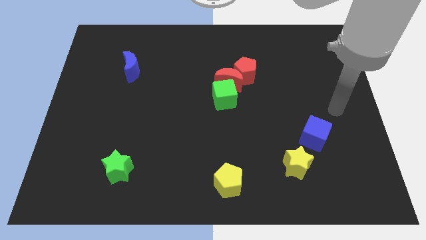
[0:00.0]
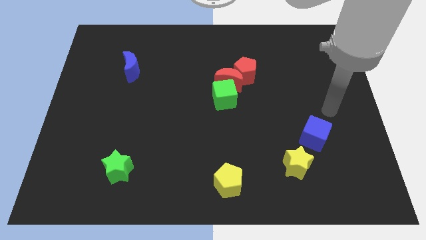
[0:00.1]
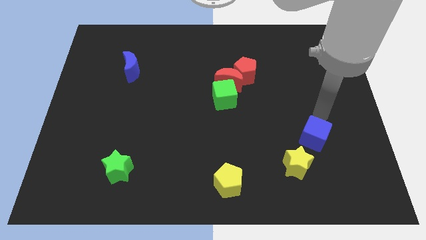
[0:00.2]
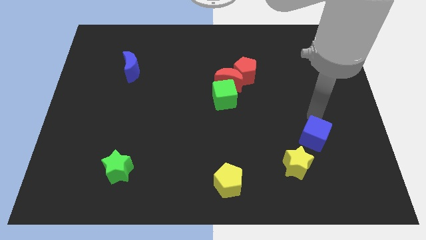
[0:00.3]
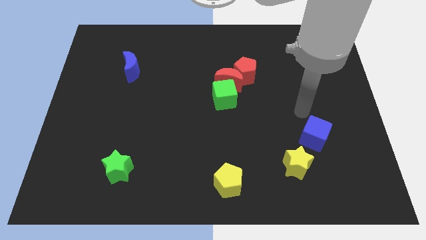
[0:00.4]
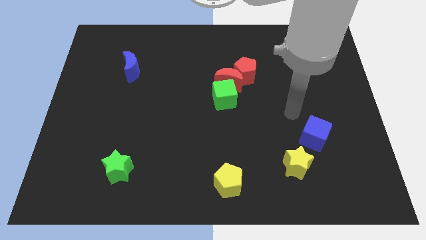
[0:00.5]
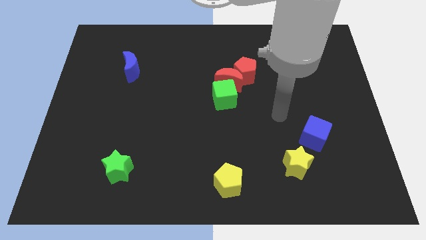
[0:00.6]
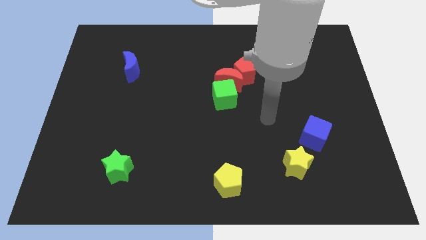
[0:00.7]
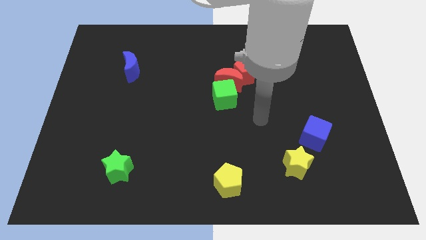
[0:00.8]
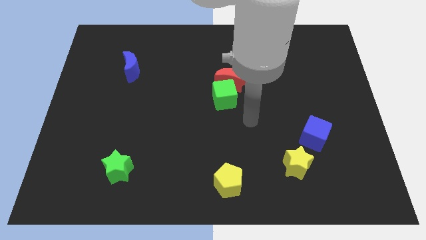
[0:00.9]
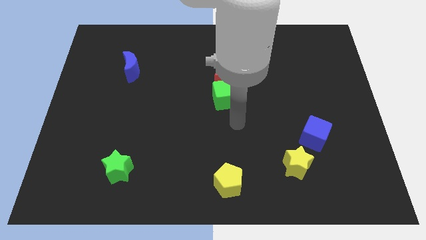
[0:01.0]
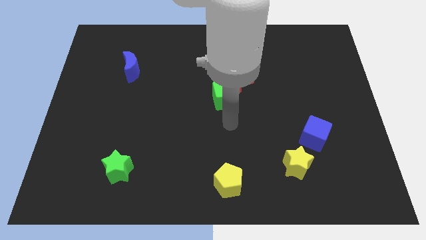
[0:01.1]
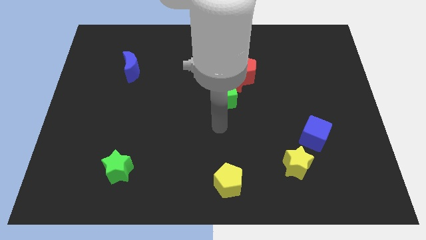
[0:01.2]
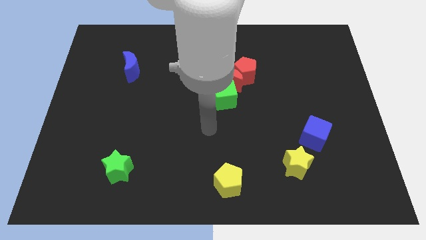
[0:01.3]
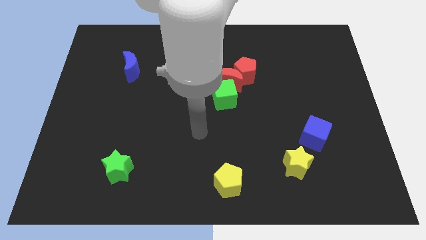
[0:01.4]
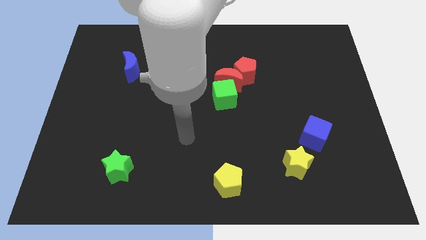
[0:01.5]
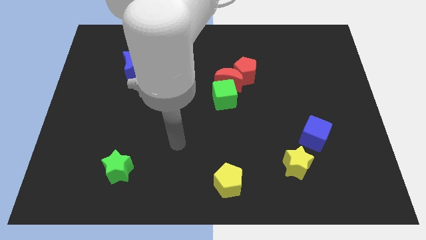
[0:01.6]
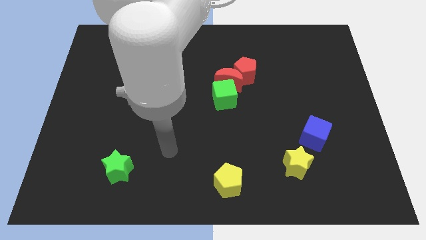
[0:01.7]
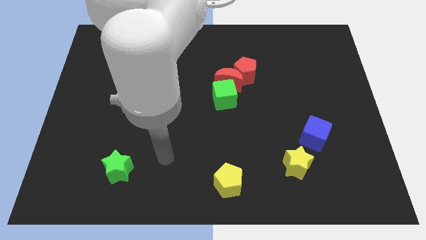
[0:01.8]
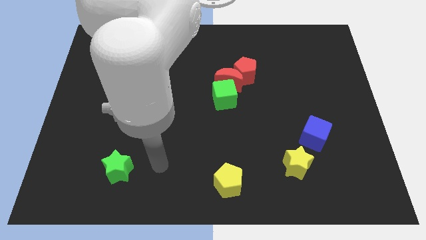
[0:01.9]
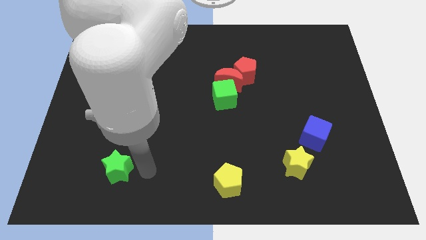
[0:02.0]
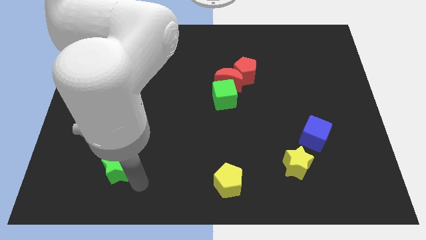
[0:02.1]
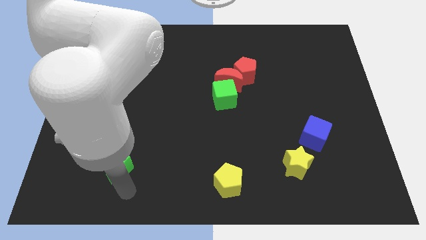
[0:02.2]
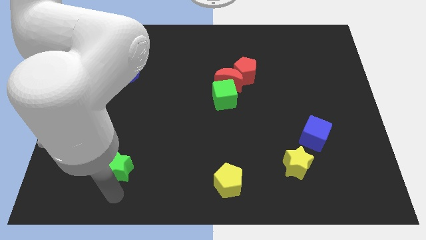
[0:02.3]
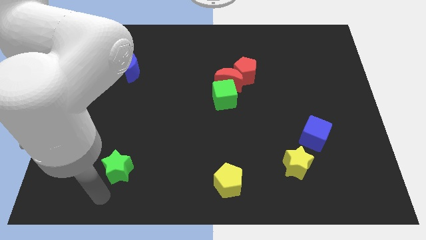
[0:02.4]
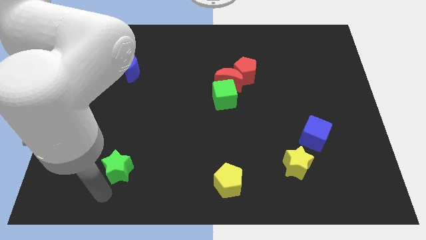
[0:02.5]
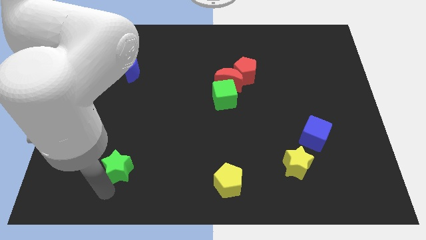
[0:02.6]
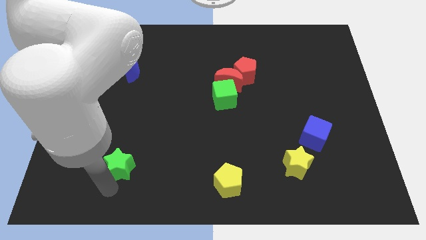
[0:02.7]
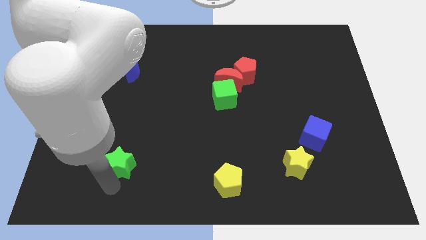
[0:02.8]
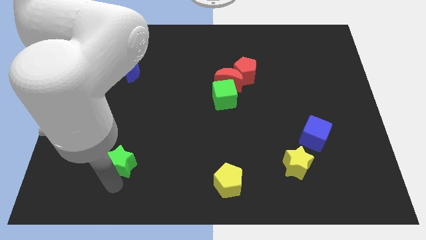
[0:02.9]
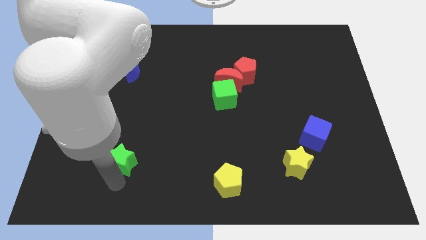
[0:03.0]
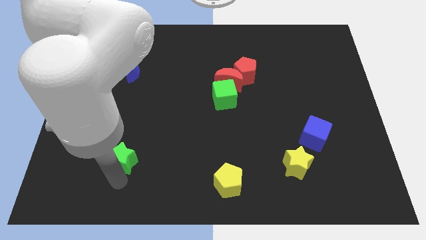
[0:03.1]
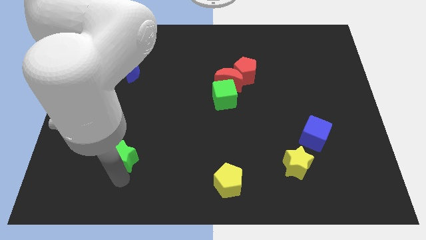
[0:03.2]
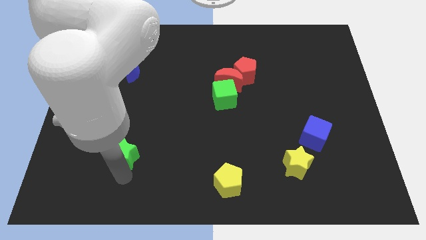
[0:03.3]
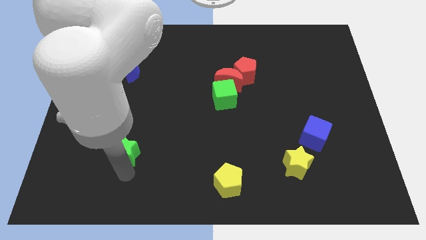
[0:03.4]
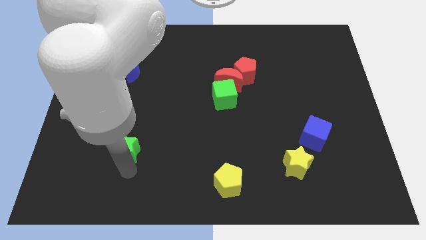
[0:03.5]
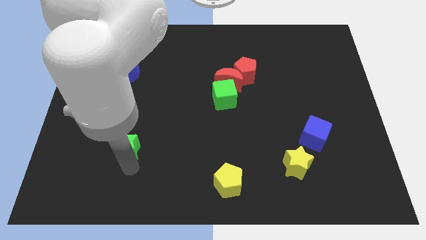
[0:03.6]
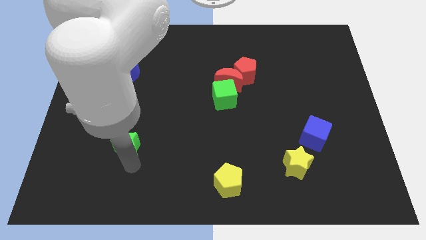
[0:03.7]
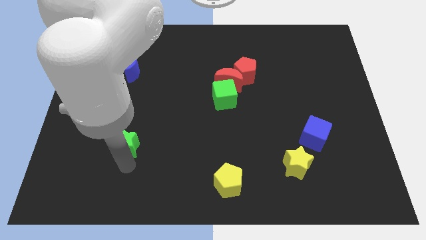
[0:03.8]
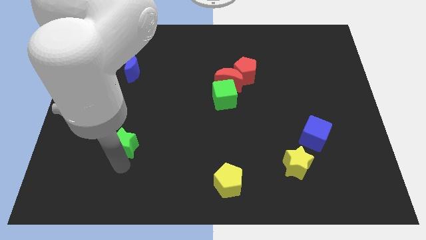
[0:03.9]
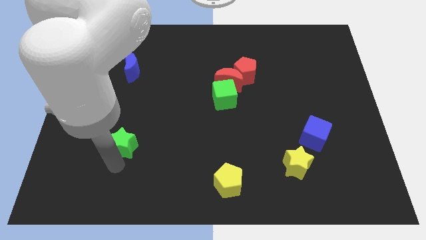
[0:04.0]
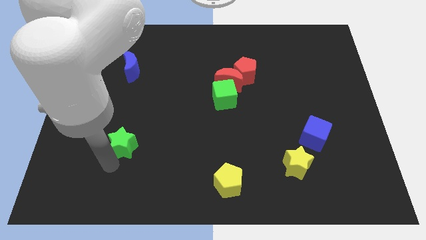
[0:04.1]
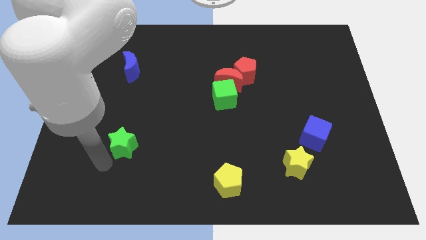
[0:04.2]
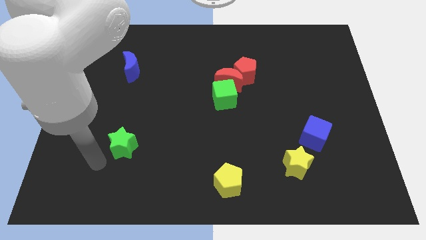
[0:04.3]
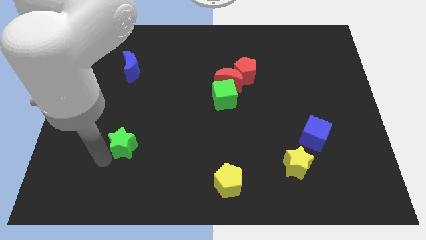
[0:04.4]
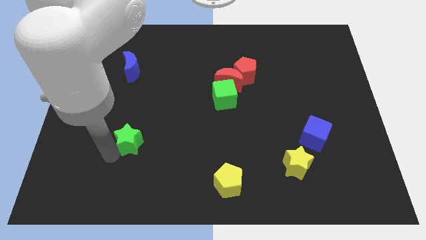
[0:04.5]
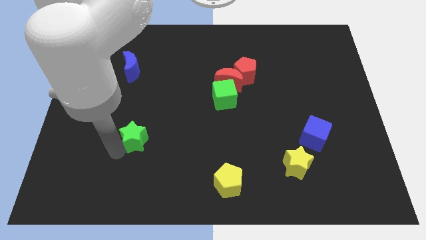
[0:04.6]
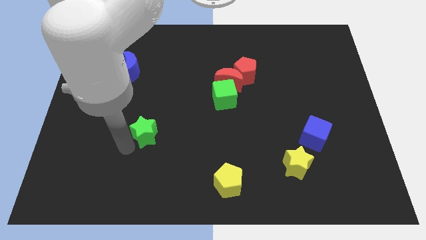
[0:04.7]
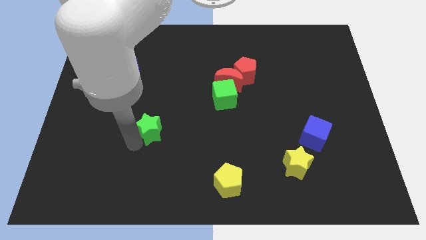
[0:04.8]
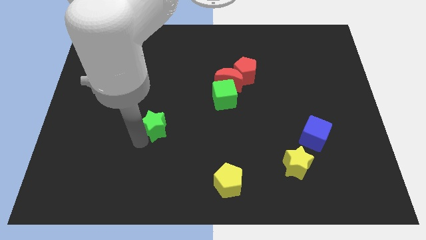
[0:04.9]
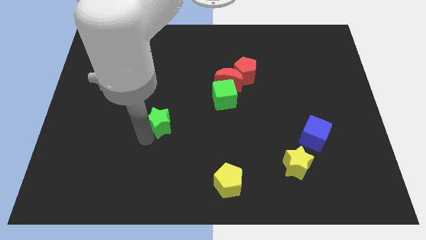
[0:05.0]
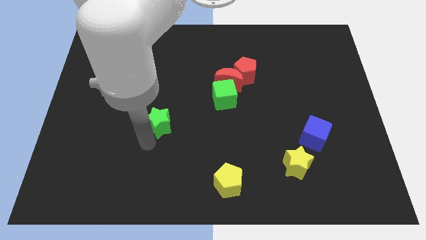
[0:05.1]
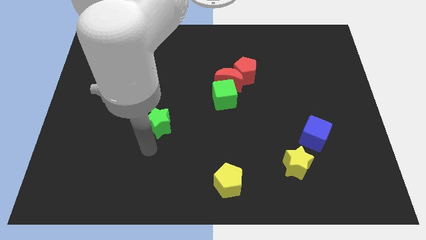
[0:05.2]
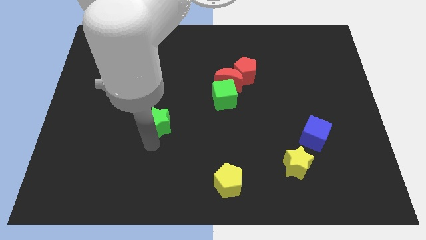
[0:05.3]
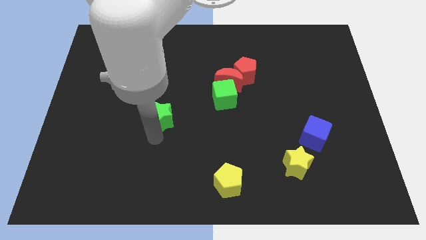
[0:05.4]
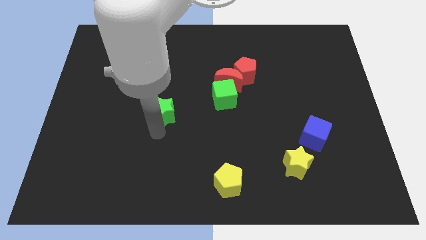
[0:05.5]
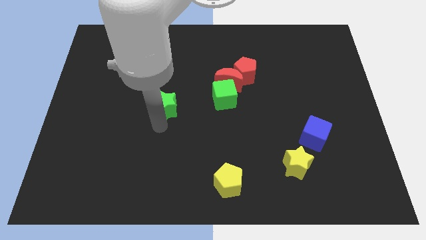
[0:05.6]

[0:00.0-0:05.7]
slide the green star to the left of the green cube

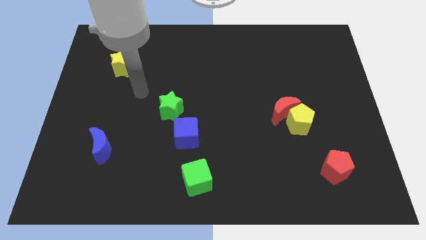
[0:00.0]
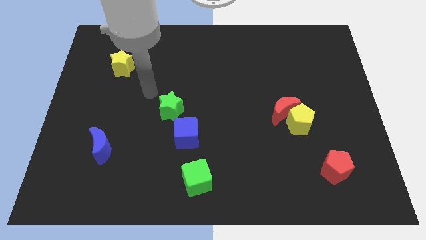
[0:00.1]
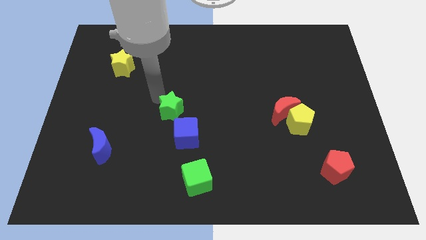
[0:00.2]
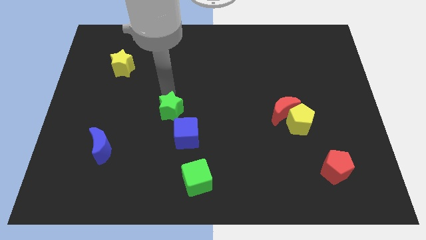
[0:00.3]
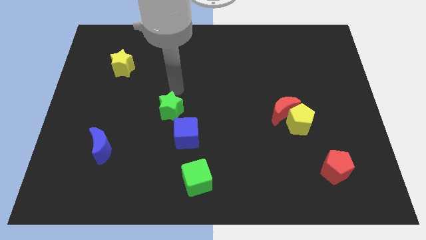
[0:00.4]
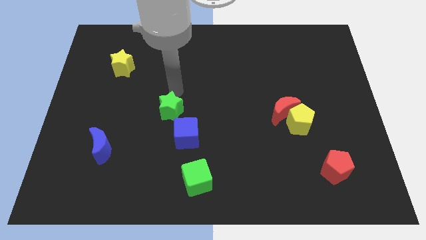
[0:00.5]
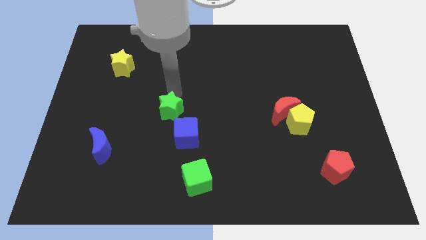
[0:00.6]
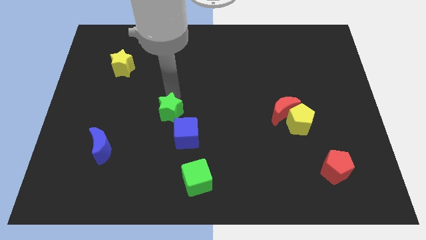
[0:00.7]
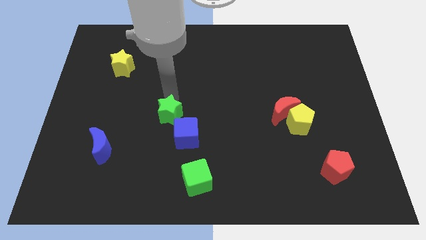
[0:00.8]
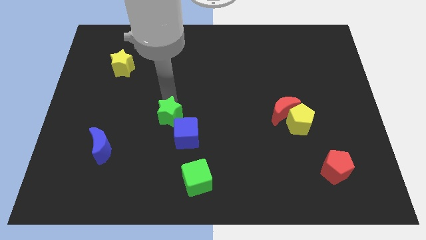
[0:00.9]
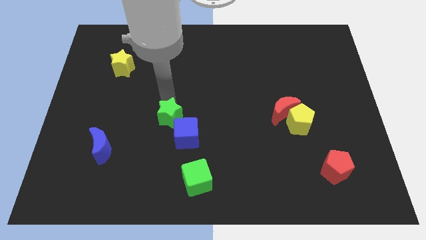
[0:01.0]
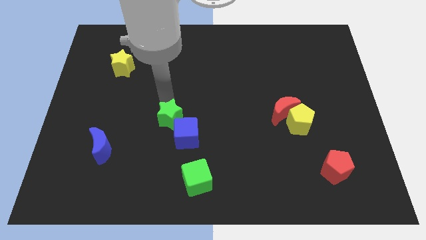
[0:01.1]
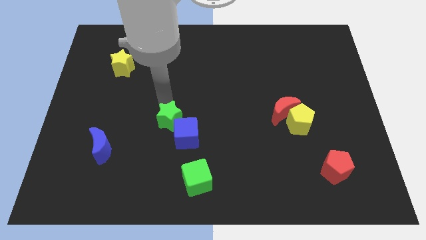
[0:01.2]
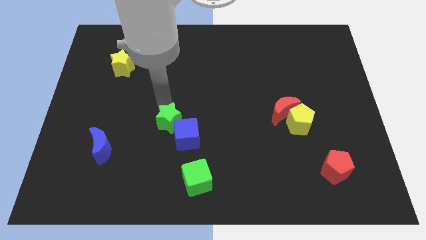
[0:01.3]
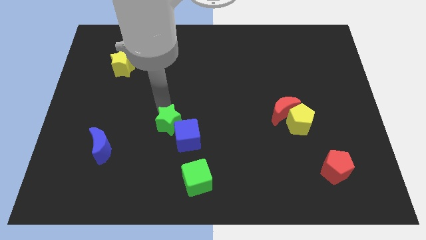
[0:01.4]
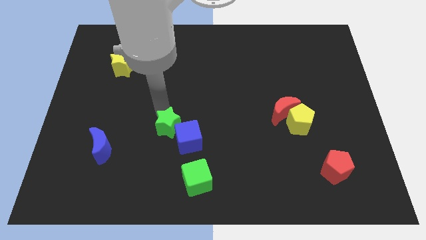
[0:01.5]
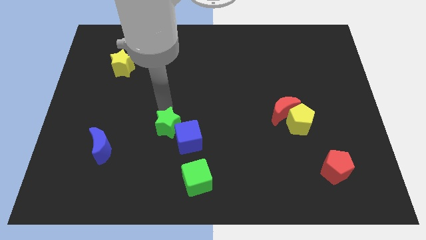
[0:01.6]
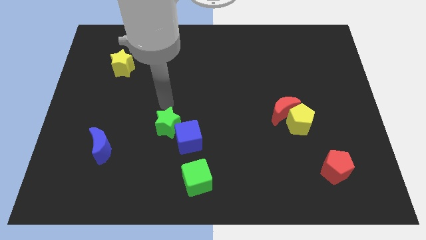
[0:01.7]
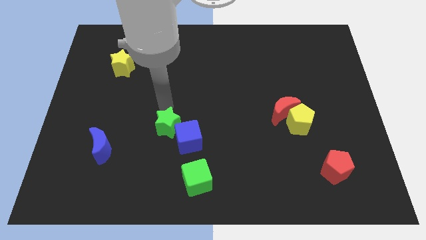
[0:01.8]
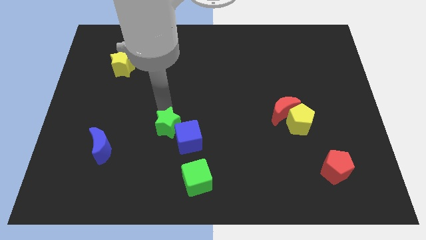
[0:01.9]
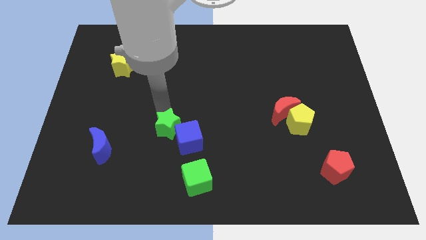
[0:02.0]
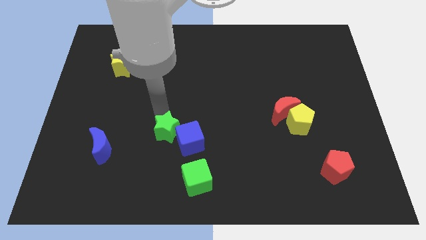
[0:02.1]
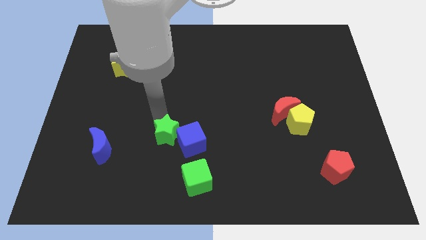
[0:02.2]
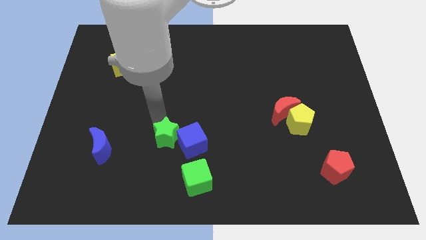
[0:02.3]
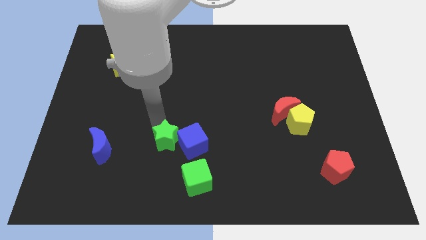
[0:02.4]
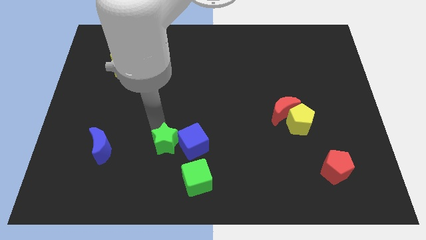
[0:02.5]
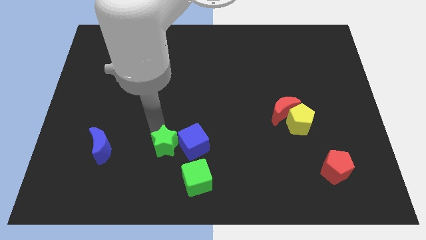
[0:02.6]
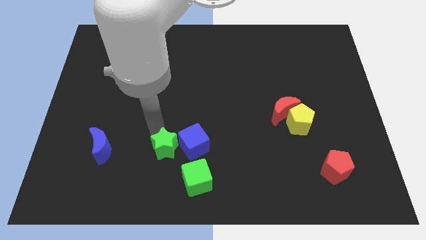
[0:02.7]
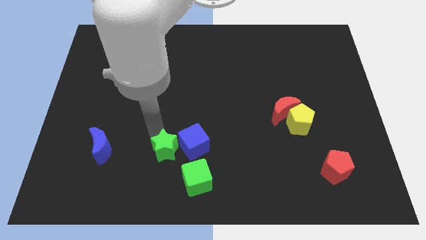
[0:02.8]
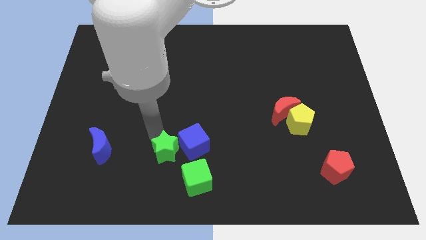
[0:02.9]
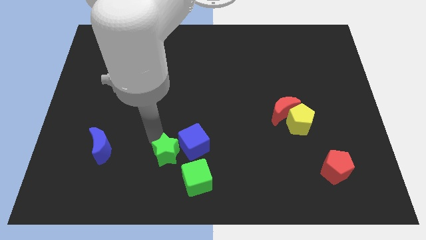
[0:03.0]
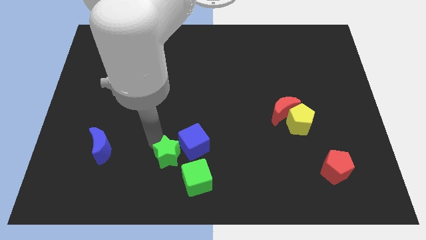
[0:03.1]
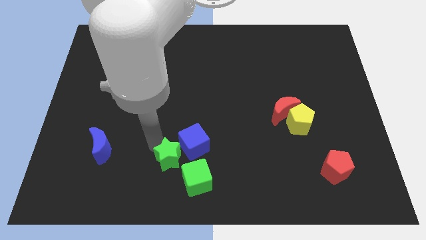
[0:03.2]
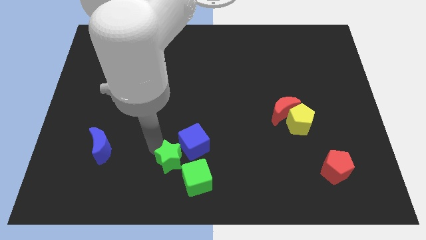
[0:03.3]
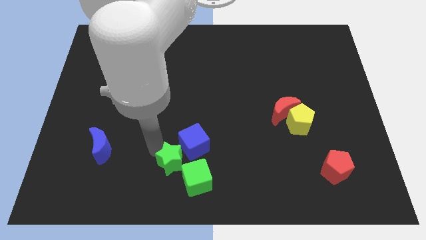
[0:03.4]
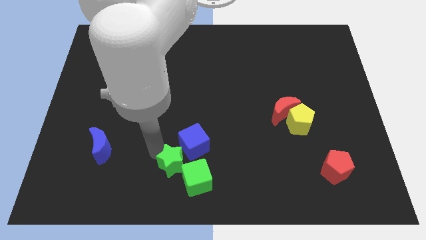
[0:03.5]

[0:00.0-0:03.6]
push the green star to the bottom side of the blue cube
